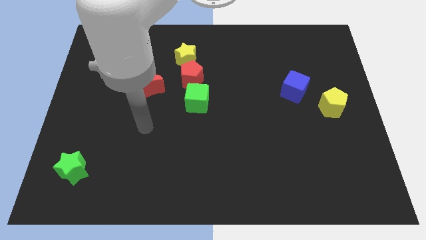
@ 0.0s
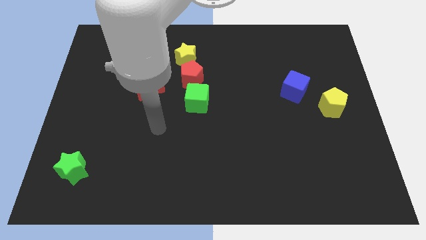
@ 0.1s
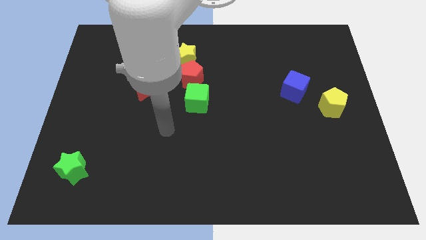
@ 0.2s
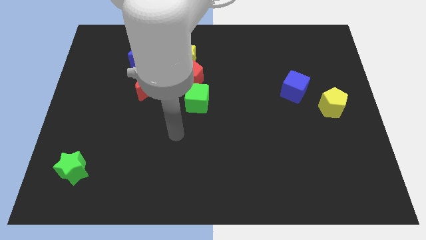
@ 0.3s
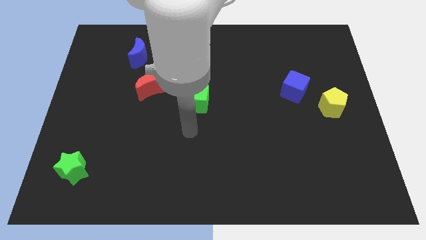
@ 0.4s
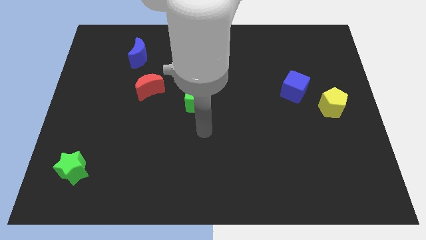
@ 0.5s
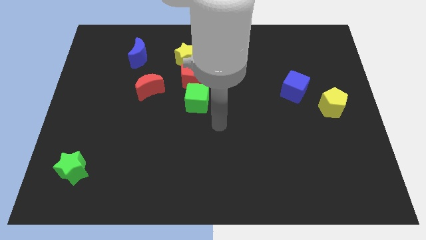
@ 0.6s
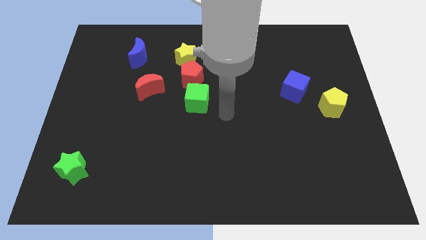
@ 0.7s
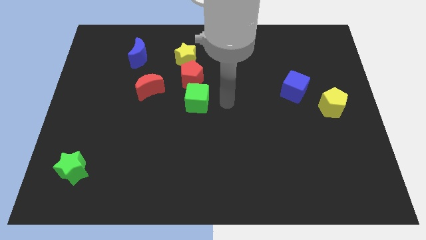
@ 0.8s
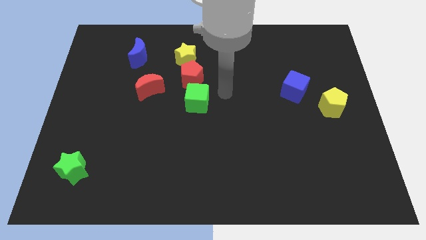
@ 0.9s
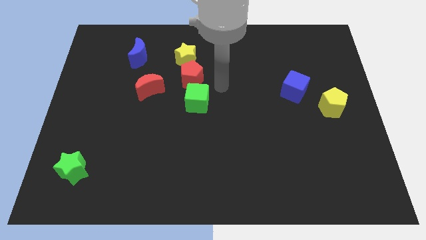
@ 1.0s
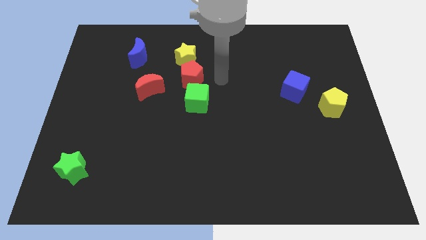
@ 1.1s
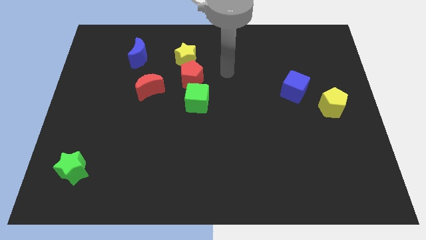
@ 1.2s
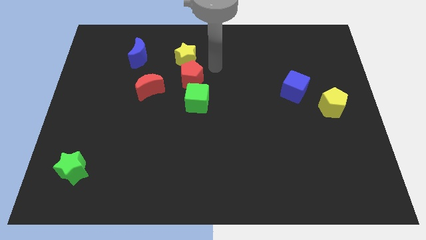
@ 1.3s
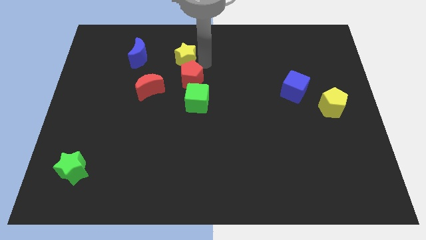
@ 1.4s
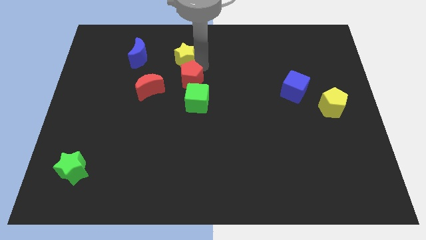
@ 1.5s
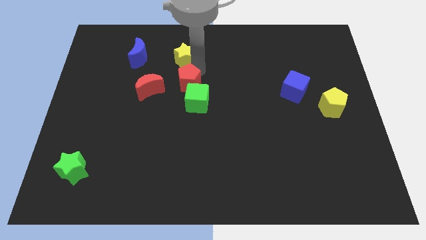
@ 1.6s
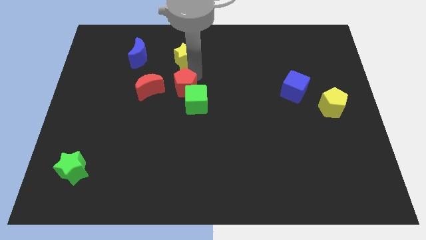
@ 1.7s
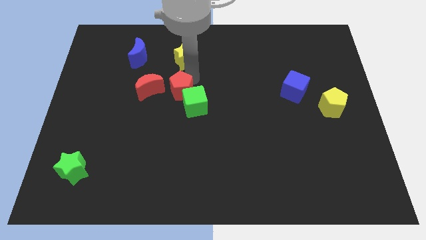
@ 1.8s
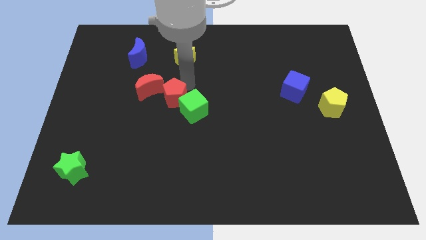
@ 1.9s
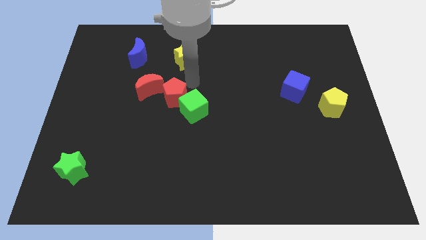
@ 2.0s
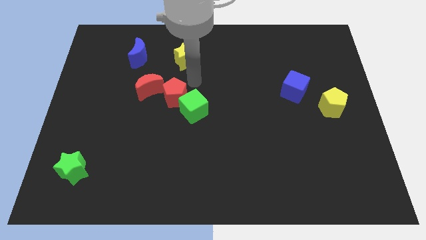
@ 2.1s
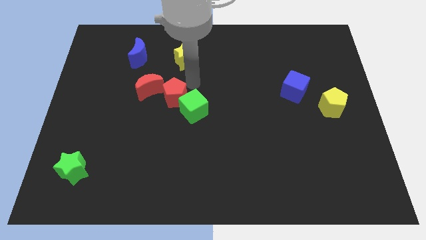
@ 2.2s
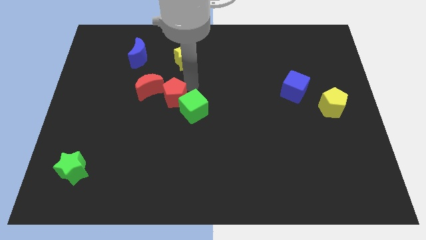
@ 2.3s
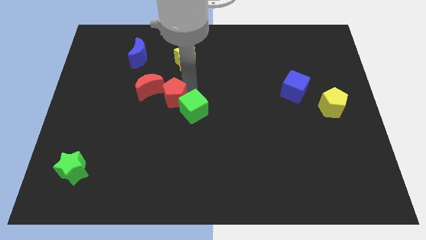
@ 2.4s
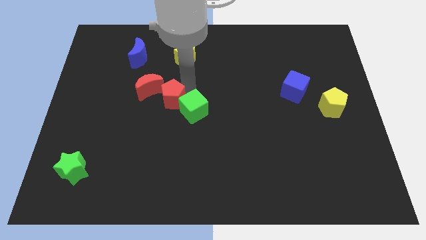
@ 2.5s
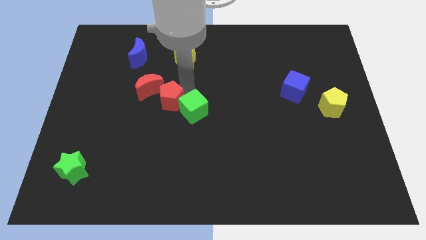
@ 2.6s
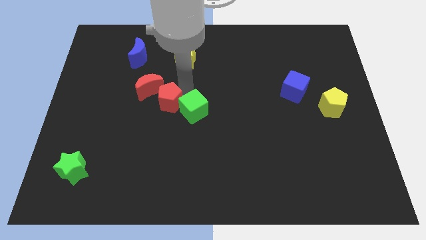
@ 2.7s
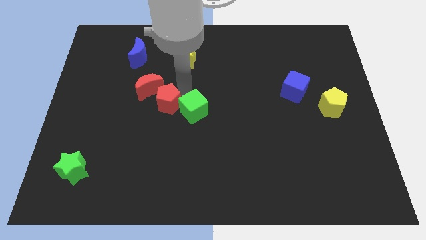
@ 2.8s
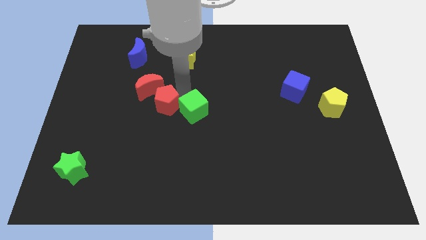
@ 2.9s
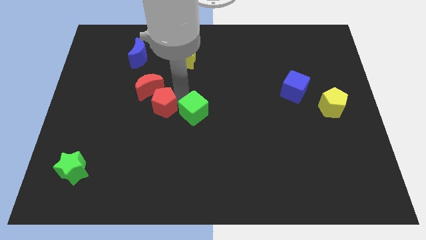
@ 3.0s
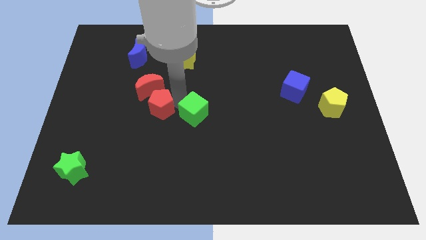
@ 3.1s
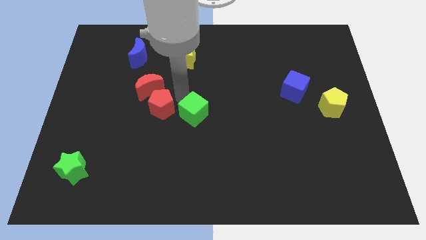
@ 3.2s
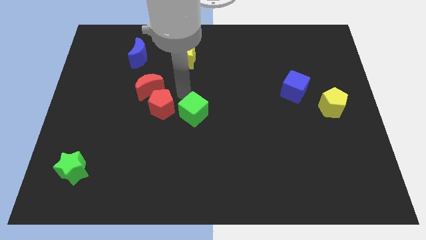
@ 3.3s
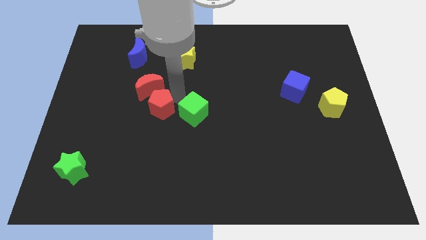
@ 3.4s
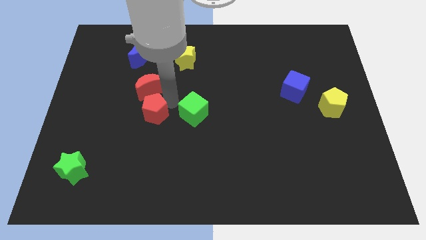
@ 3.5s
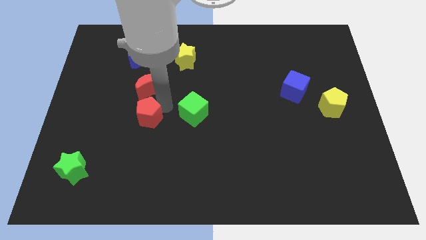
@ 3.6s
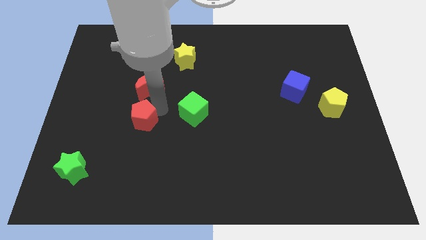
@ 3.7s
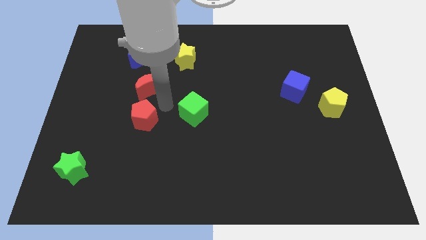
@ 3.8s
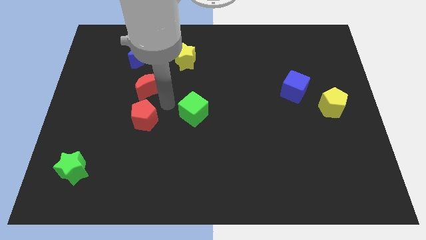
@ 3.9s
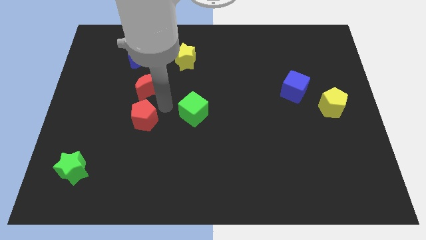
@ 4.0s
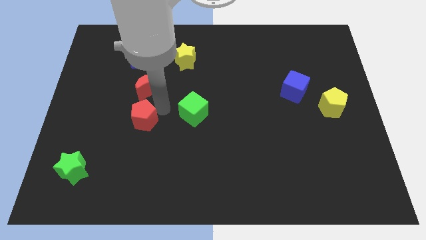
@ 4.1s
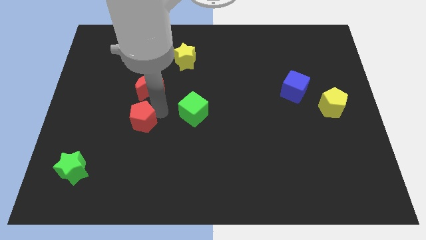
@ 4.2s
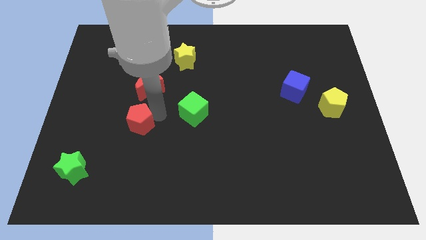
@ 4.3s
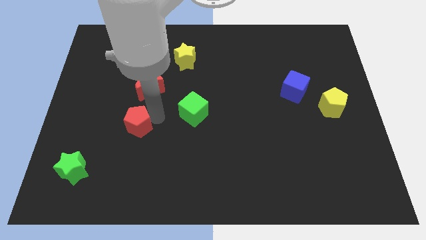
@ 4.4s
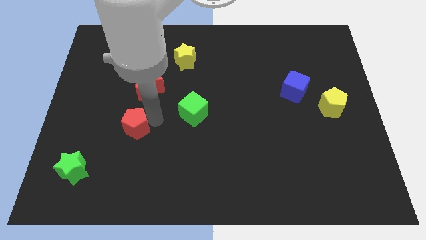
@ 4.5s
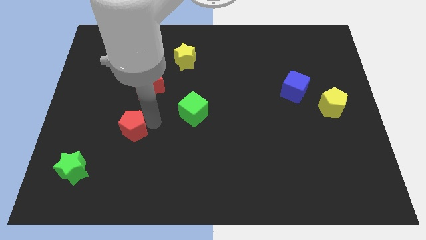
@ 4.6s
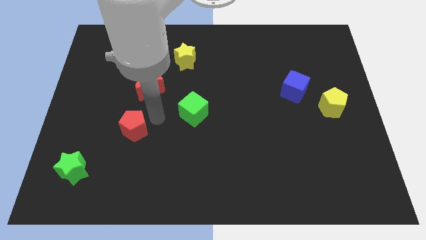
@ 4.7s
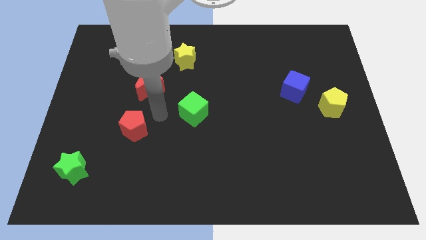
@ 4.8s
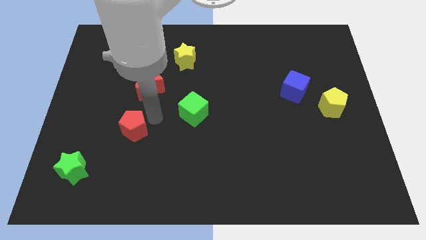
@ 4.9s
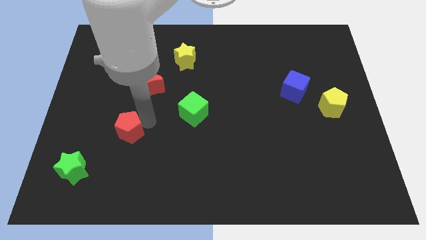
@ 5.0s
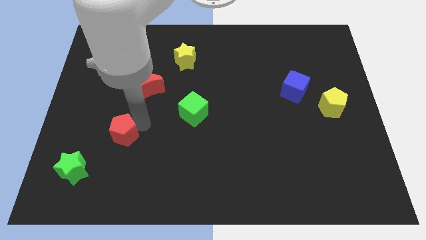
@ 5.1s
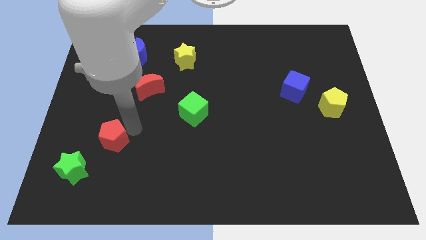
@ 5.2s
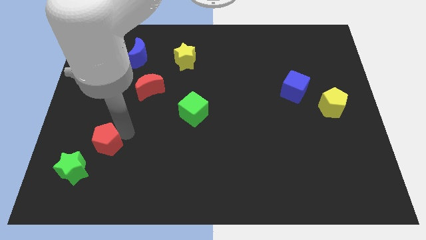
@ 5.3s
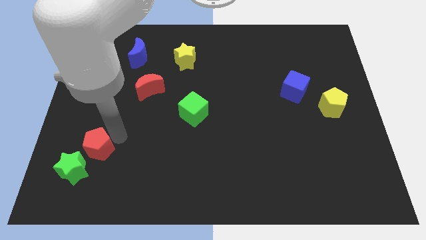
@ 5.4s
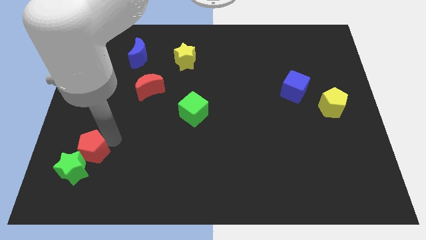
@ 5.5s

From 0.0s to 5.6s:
put the red pentagon next to the green star

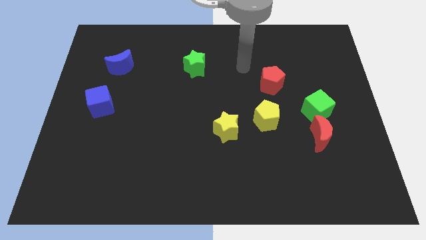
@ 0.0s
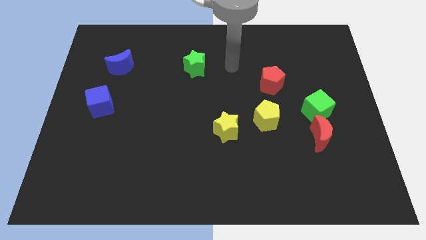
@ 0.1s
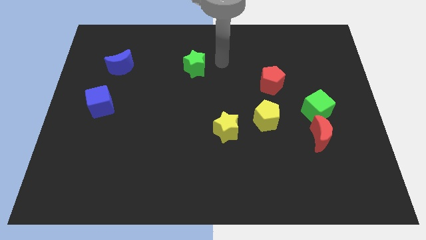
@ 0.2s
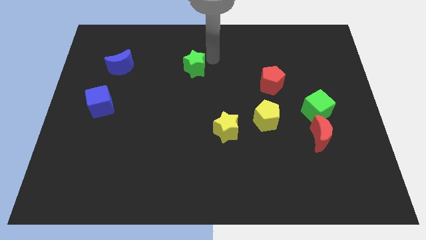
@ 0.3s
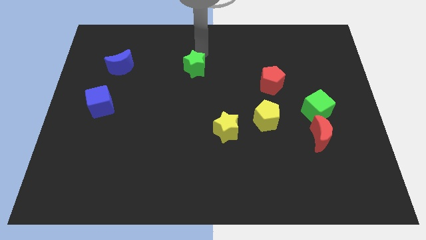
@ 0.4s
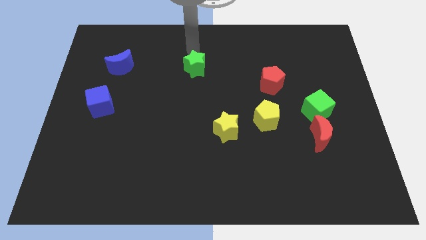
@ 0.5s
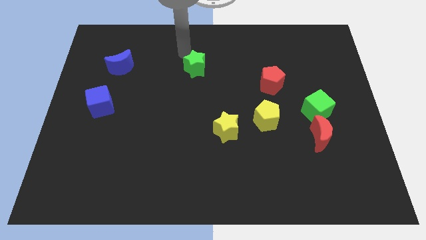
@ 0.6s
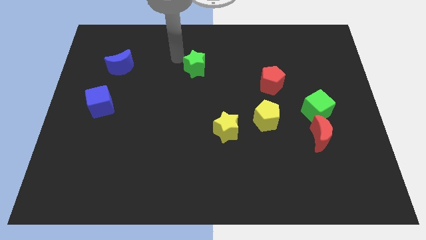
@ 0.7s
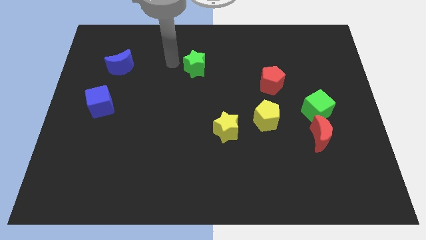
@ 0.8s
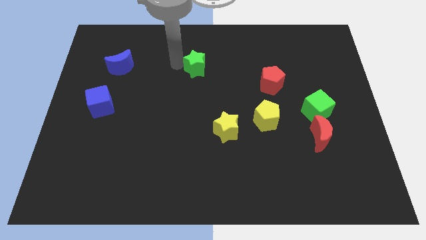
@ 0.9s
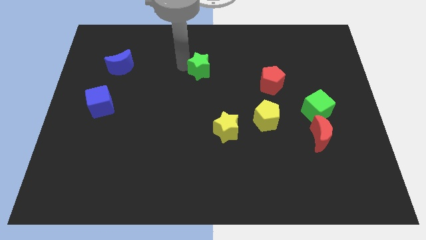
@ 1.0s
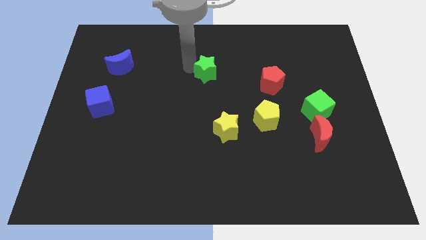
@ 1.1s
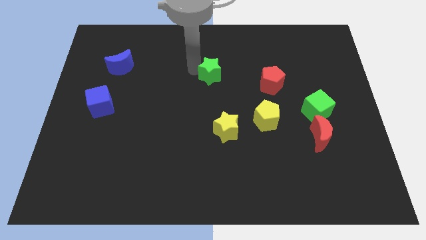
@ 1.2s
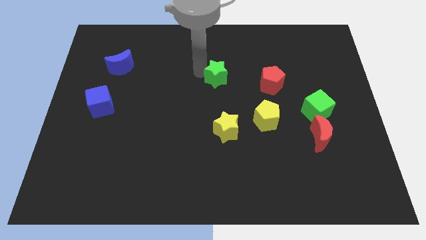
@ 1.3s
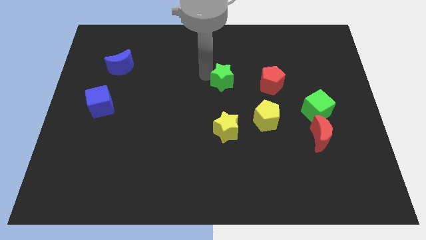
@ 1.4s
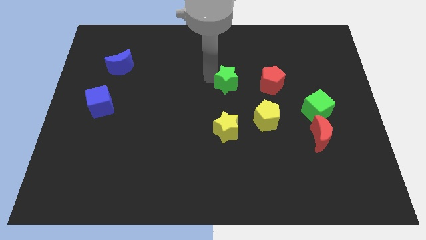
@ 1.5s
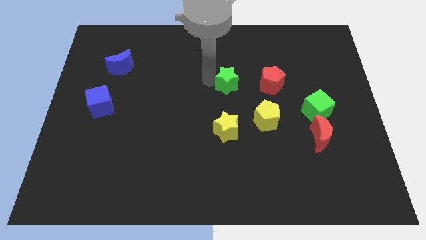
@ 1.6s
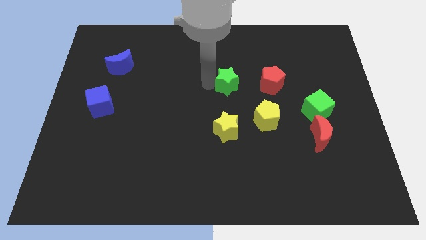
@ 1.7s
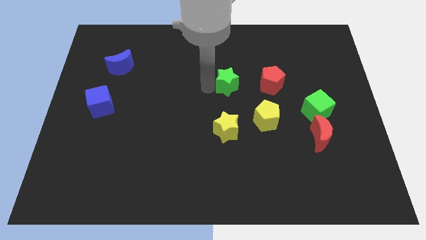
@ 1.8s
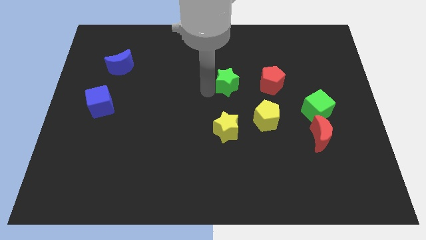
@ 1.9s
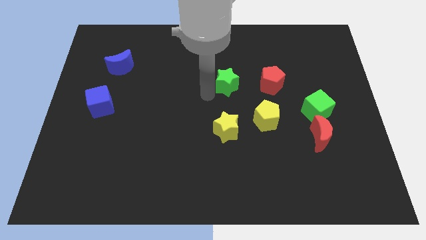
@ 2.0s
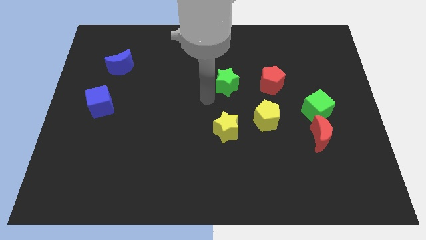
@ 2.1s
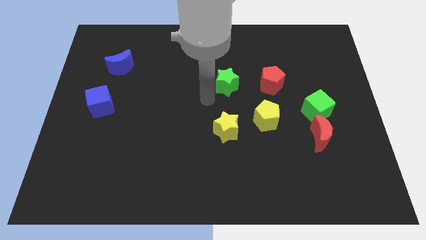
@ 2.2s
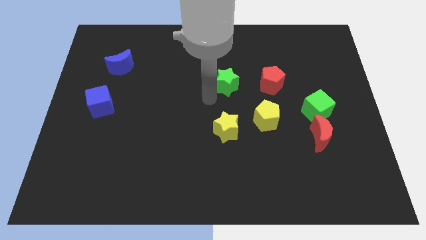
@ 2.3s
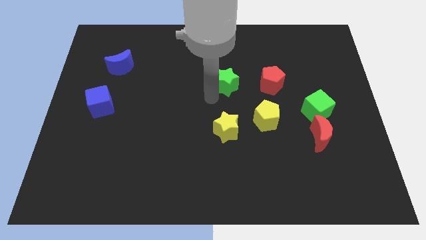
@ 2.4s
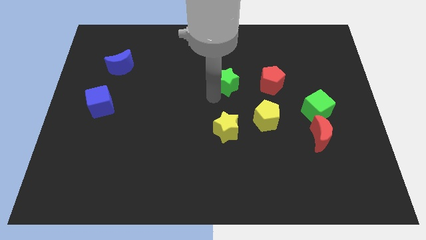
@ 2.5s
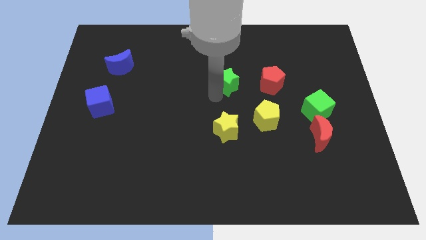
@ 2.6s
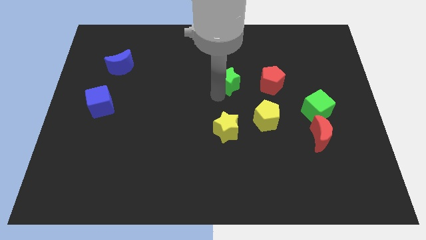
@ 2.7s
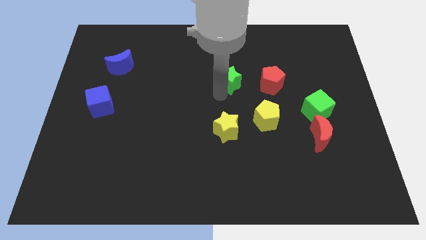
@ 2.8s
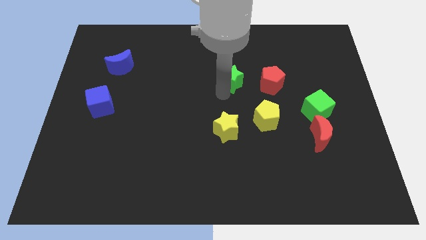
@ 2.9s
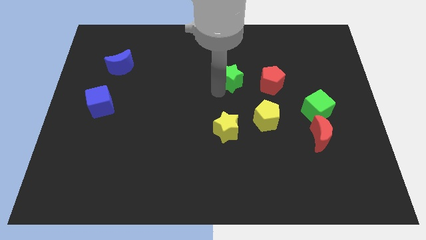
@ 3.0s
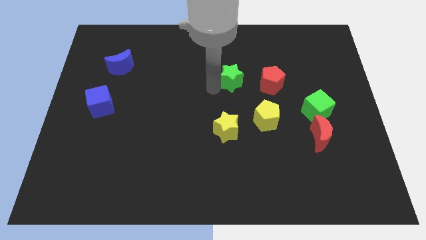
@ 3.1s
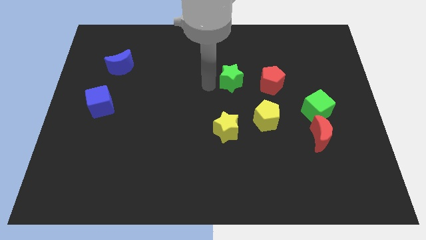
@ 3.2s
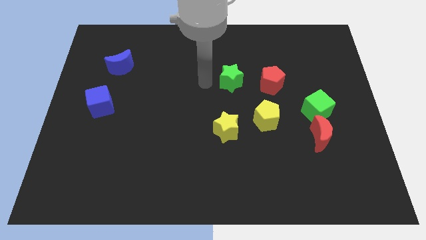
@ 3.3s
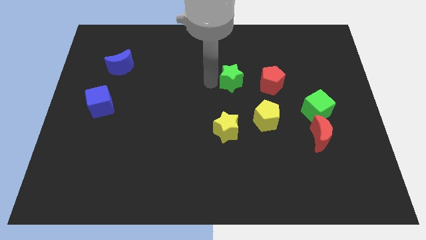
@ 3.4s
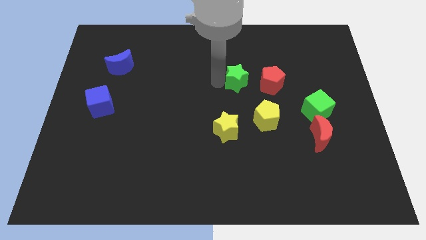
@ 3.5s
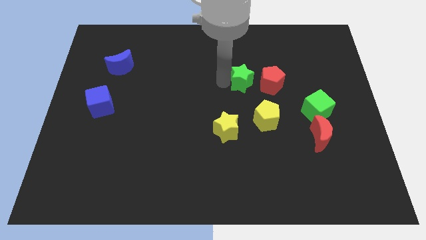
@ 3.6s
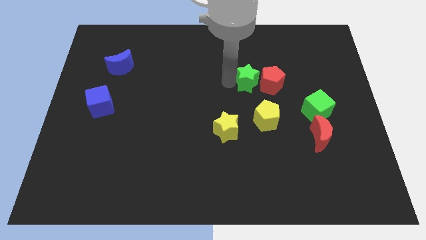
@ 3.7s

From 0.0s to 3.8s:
put the green star to the red pentagon
